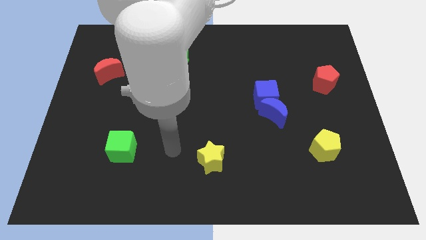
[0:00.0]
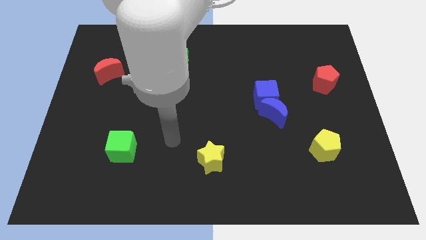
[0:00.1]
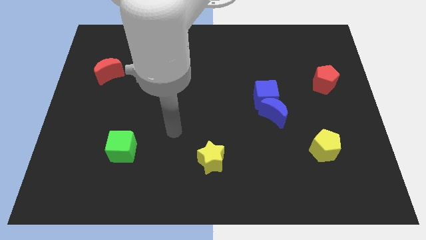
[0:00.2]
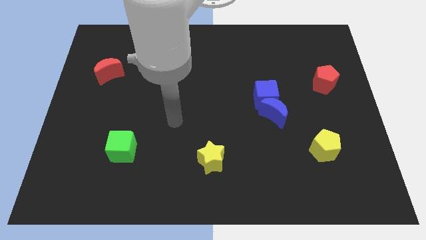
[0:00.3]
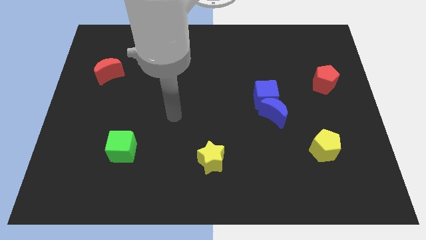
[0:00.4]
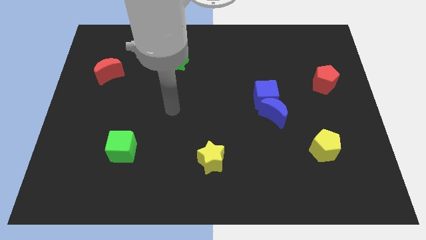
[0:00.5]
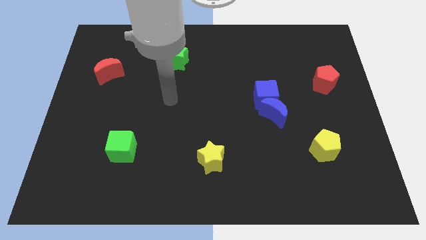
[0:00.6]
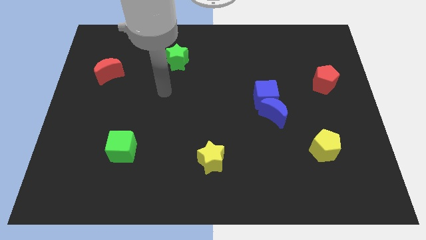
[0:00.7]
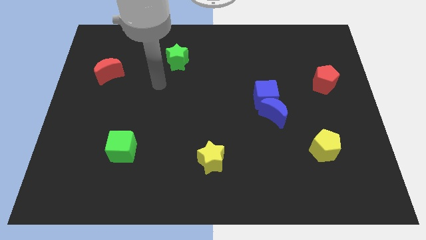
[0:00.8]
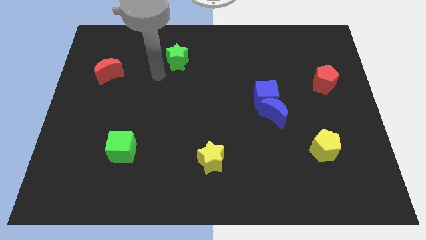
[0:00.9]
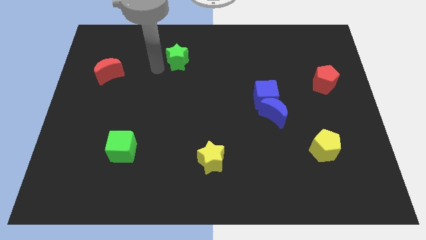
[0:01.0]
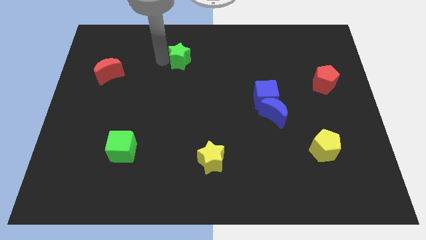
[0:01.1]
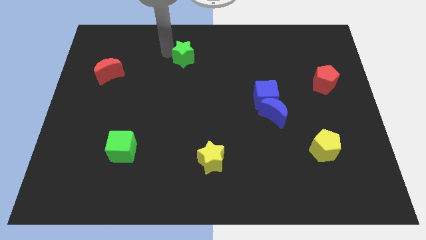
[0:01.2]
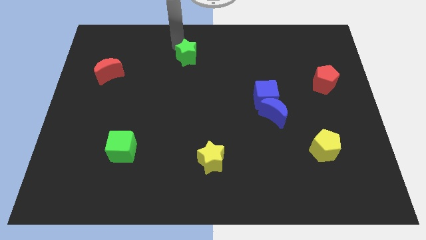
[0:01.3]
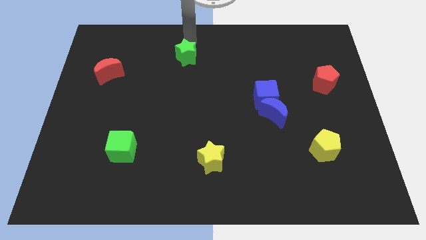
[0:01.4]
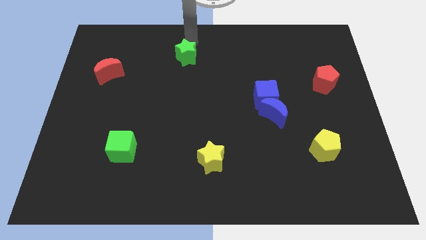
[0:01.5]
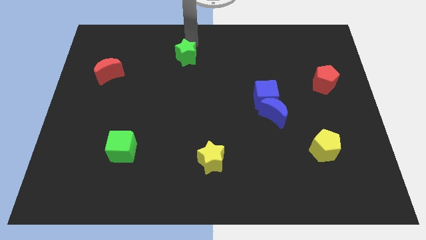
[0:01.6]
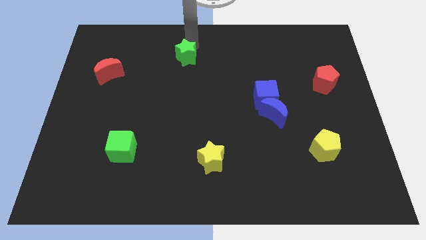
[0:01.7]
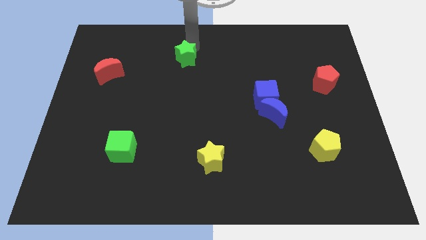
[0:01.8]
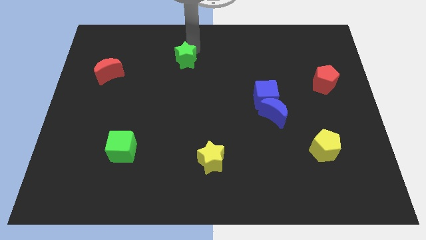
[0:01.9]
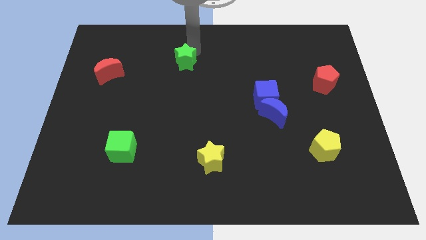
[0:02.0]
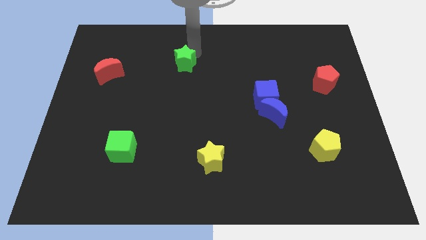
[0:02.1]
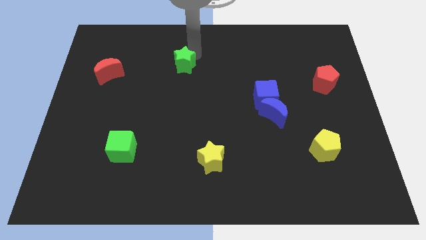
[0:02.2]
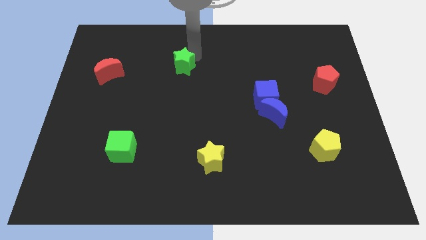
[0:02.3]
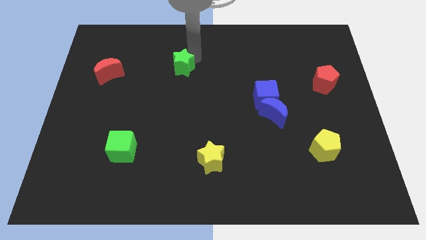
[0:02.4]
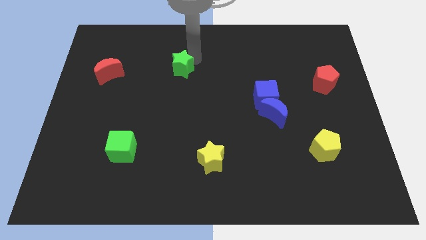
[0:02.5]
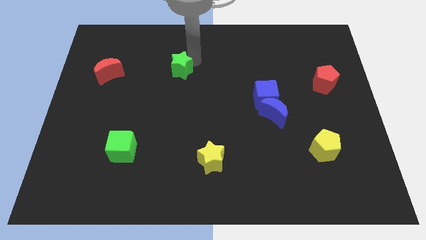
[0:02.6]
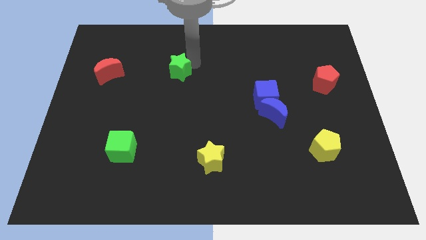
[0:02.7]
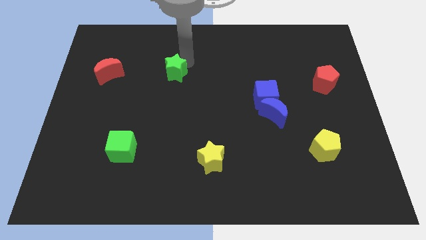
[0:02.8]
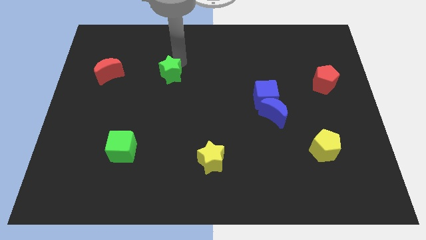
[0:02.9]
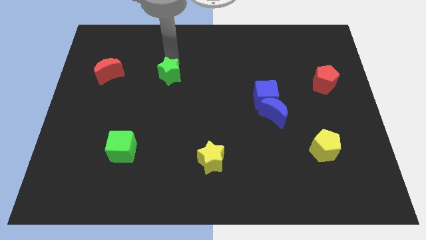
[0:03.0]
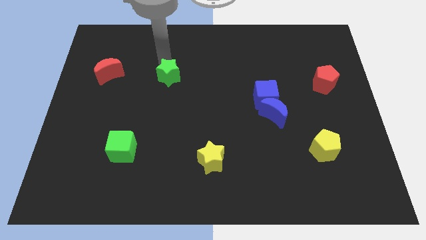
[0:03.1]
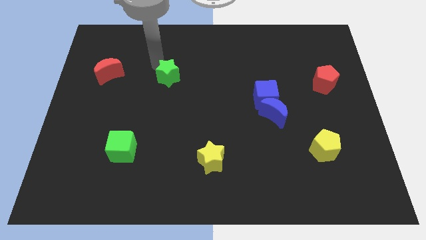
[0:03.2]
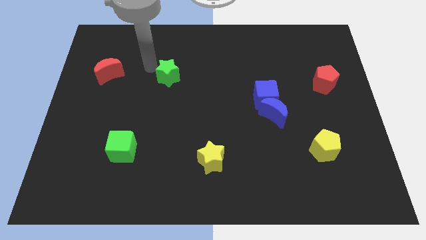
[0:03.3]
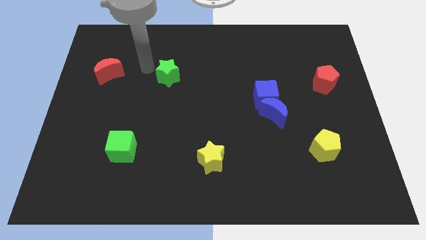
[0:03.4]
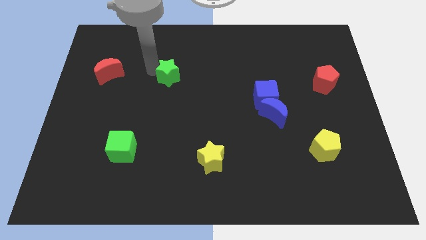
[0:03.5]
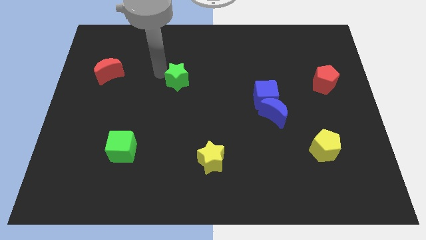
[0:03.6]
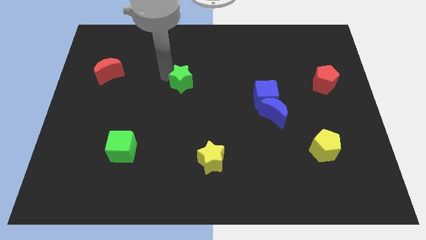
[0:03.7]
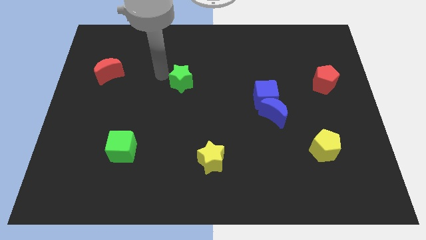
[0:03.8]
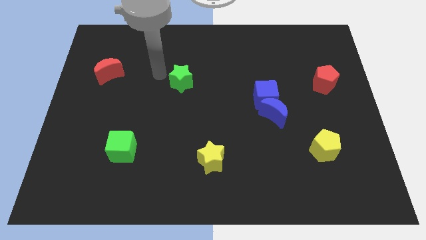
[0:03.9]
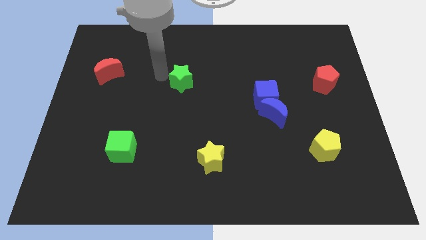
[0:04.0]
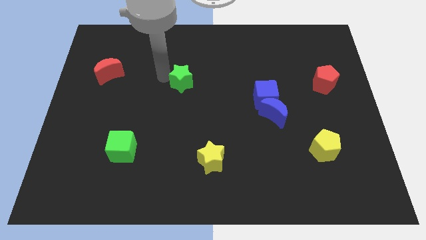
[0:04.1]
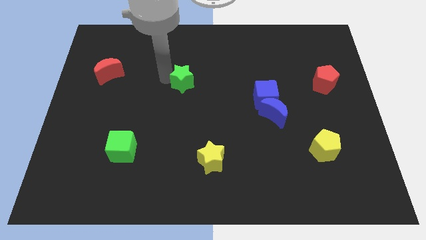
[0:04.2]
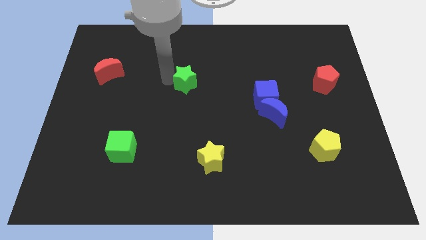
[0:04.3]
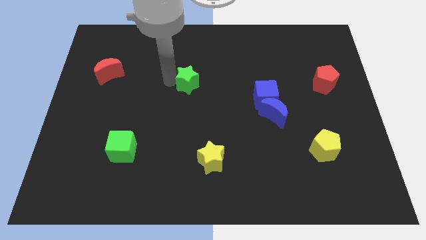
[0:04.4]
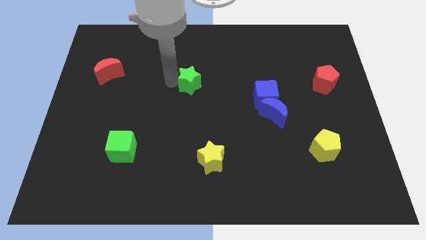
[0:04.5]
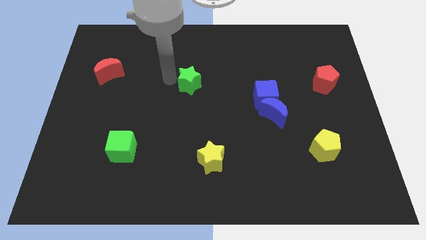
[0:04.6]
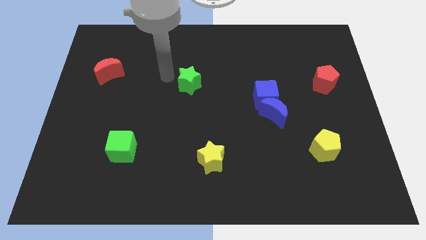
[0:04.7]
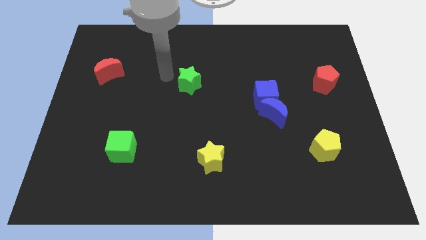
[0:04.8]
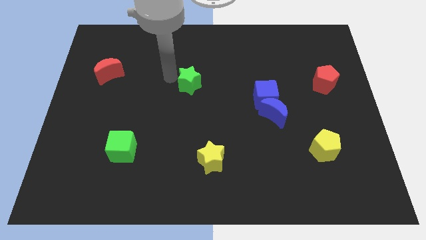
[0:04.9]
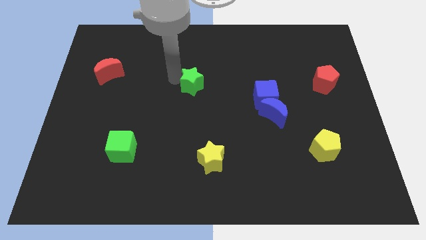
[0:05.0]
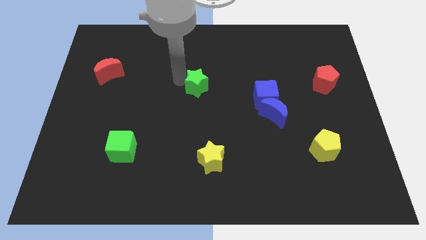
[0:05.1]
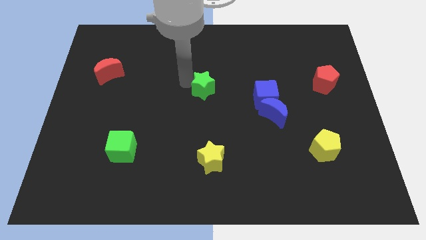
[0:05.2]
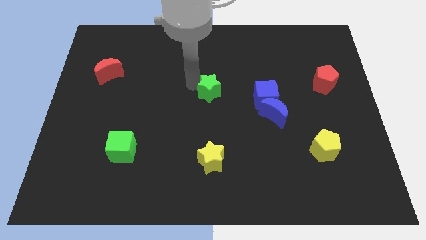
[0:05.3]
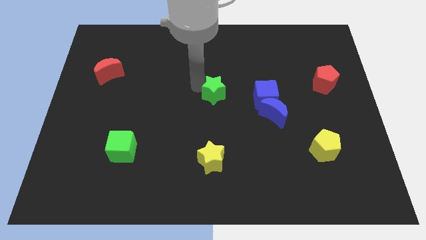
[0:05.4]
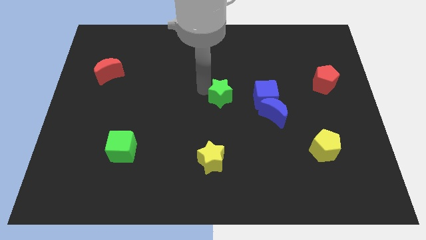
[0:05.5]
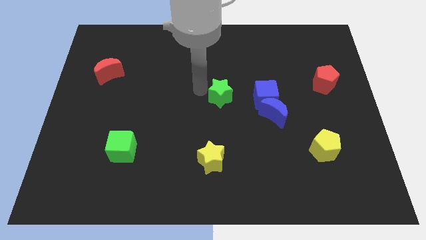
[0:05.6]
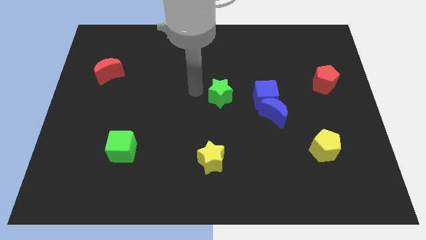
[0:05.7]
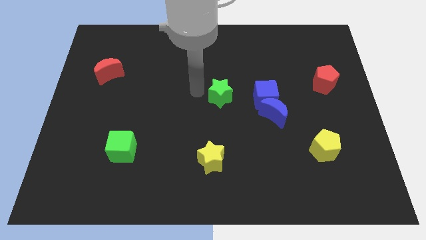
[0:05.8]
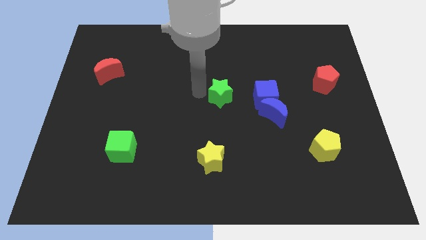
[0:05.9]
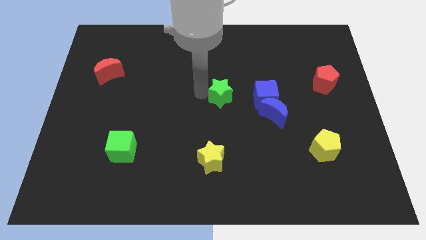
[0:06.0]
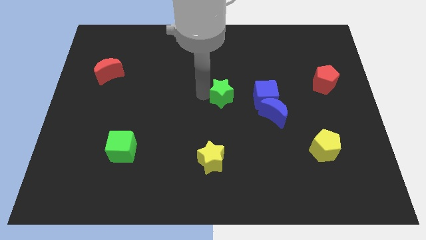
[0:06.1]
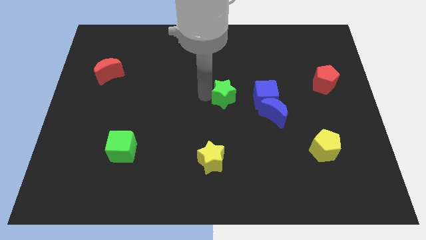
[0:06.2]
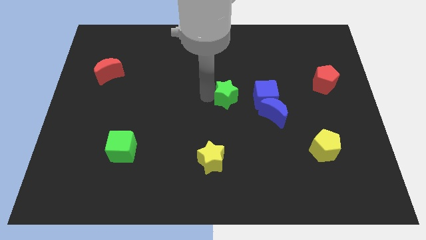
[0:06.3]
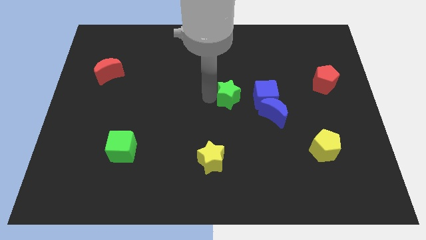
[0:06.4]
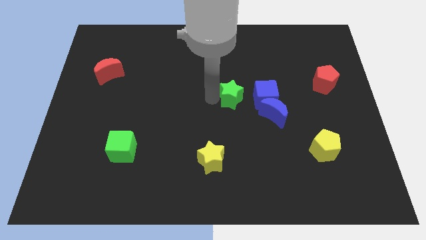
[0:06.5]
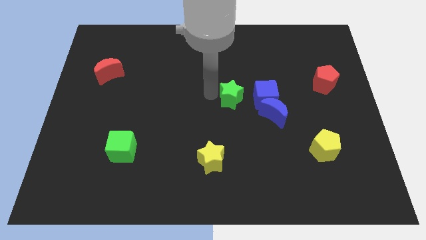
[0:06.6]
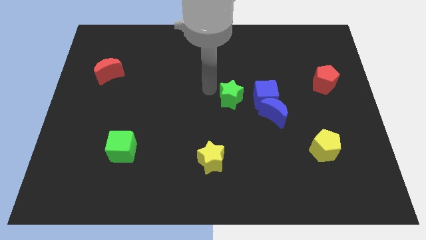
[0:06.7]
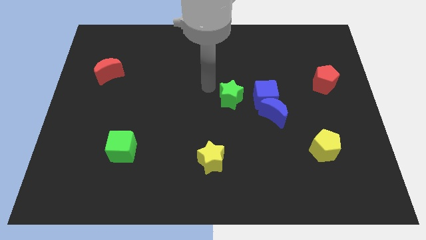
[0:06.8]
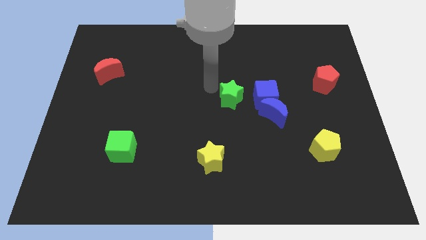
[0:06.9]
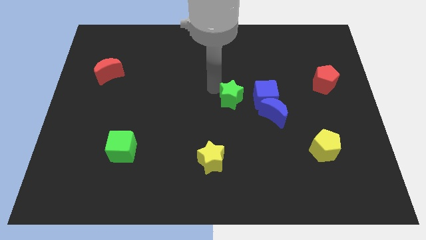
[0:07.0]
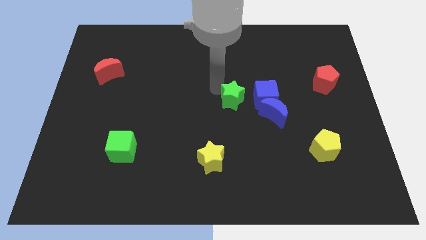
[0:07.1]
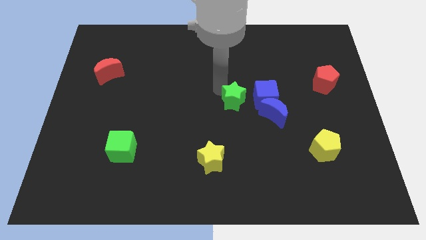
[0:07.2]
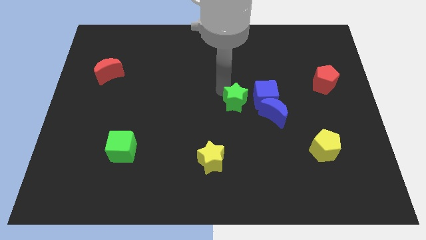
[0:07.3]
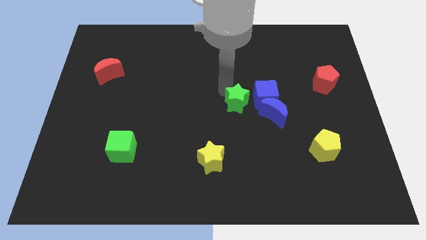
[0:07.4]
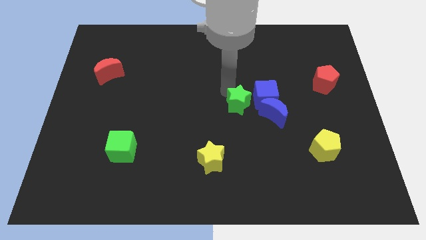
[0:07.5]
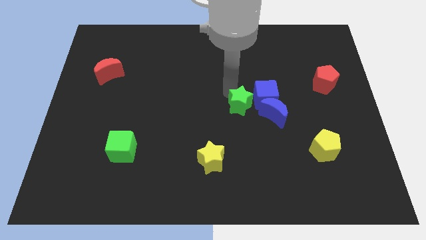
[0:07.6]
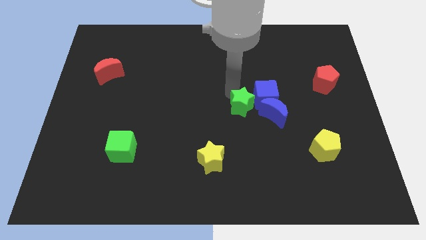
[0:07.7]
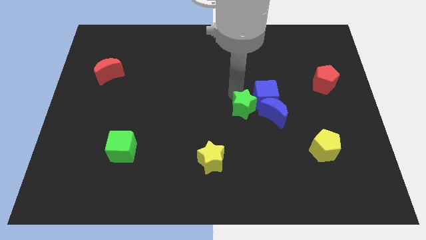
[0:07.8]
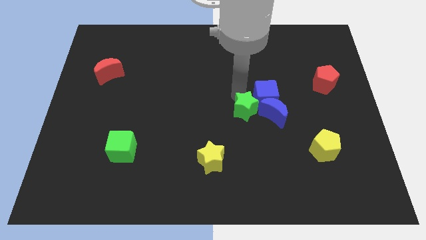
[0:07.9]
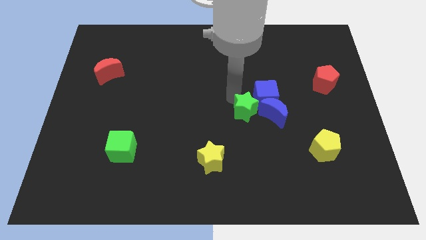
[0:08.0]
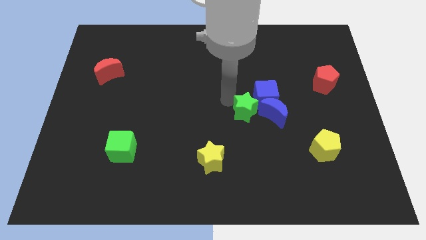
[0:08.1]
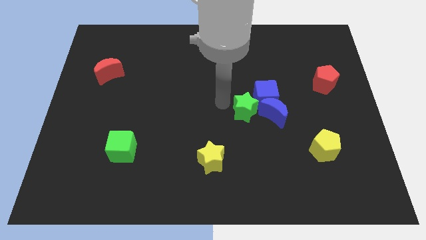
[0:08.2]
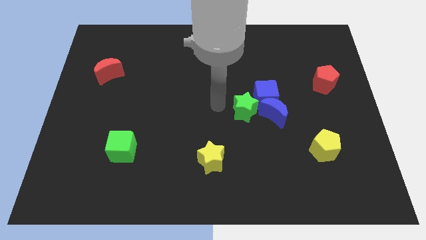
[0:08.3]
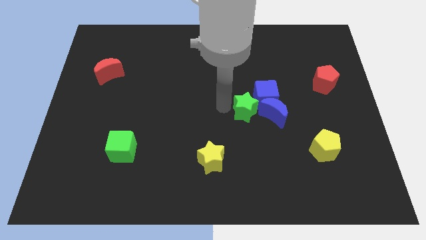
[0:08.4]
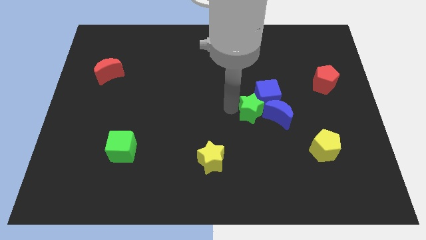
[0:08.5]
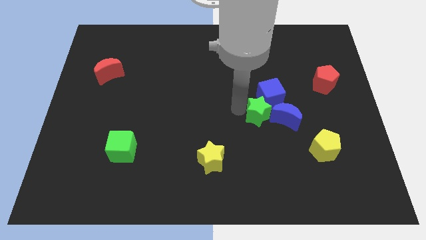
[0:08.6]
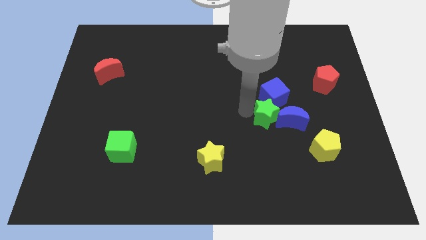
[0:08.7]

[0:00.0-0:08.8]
push the green star to the blue moon
